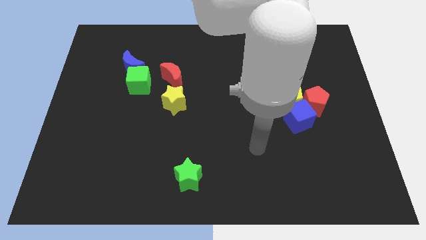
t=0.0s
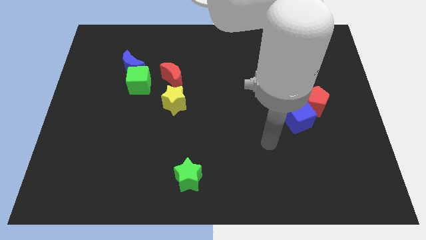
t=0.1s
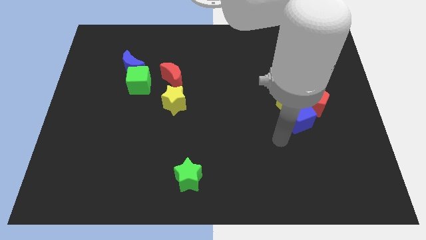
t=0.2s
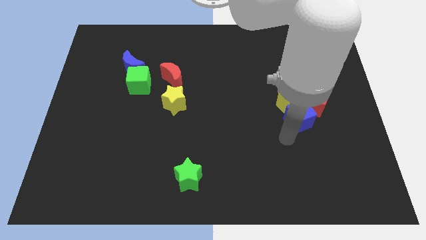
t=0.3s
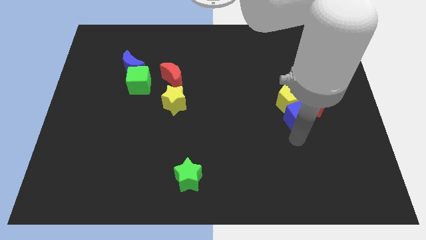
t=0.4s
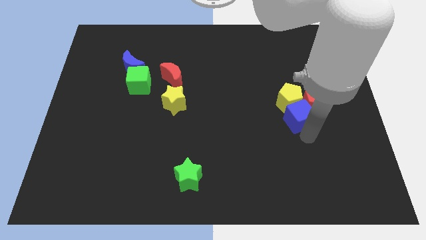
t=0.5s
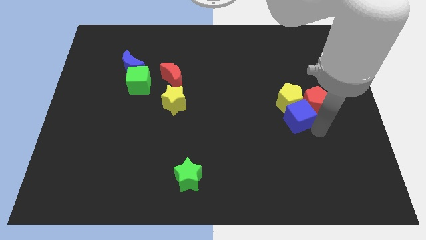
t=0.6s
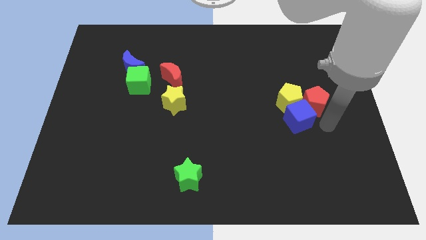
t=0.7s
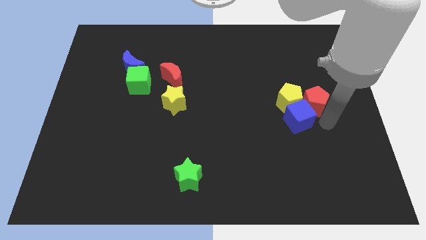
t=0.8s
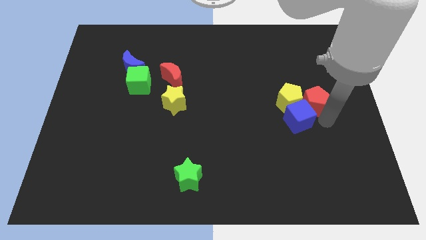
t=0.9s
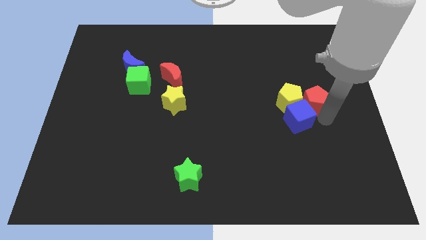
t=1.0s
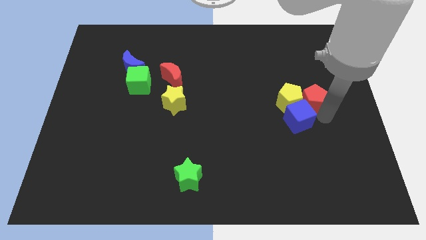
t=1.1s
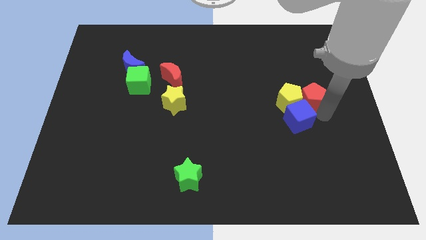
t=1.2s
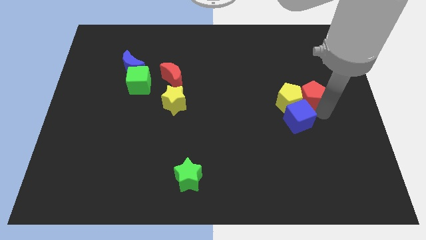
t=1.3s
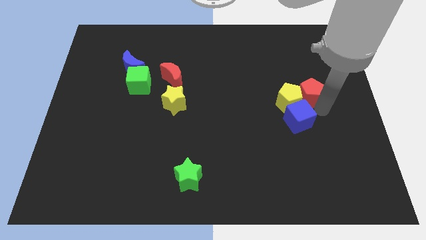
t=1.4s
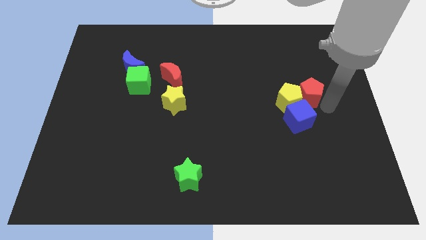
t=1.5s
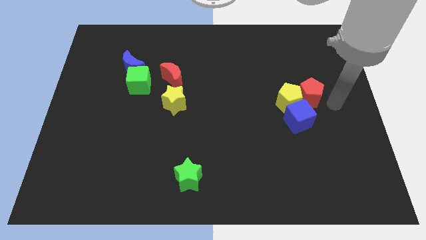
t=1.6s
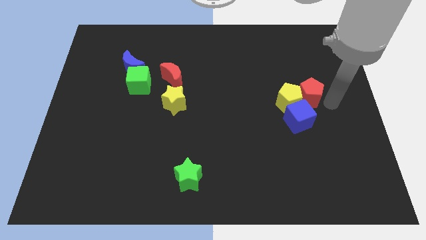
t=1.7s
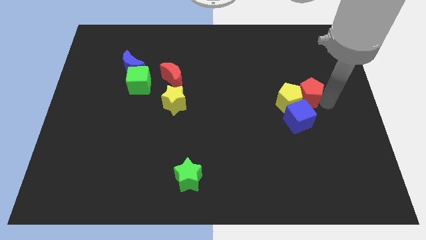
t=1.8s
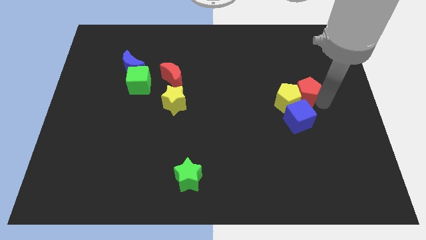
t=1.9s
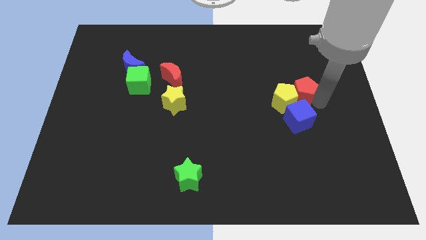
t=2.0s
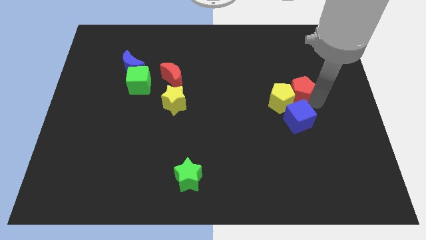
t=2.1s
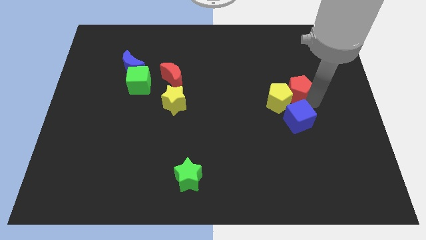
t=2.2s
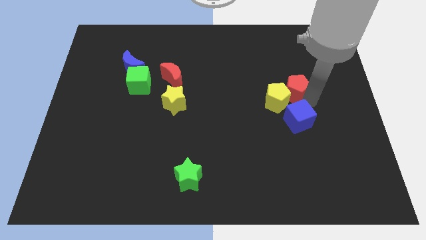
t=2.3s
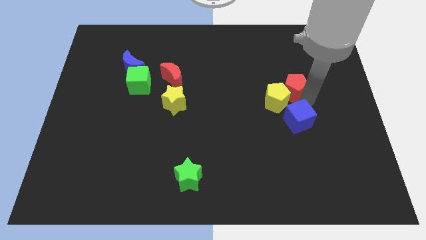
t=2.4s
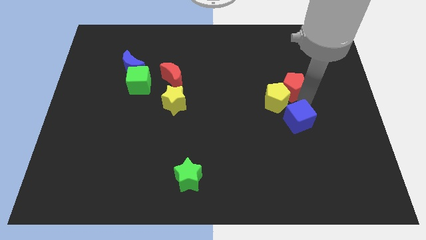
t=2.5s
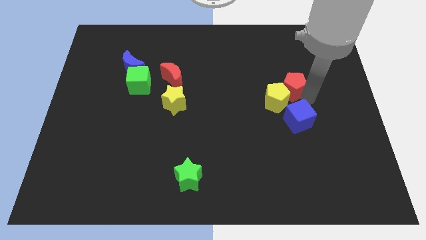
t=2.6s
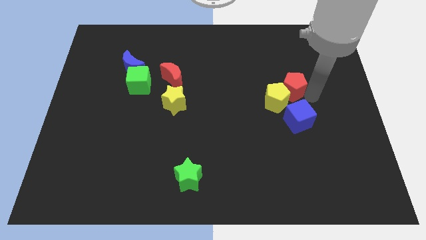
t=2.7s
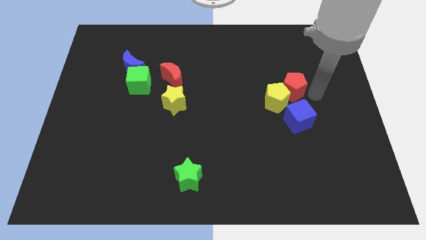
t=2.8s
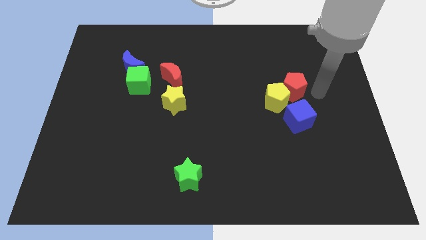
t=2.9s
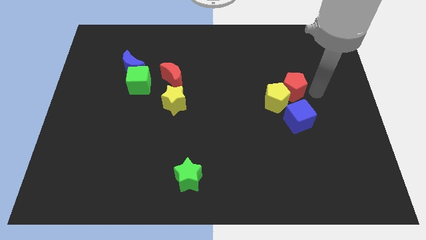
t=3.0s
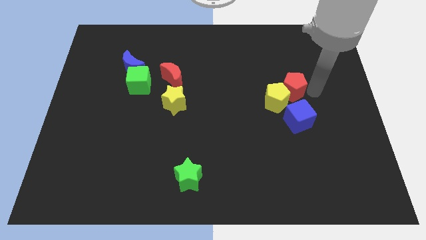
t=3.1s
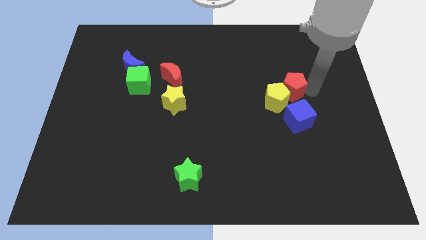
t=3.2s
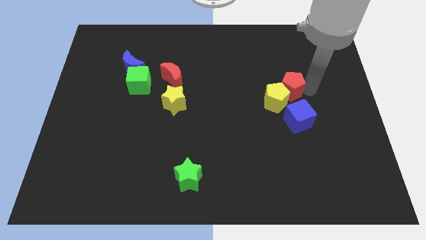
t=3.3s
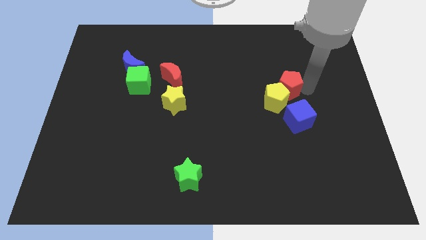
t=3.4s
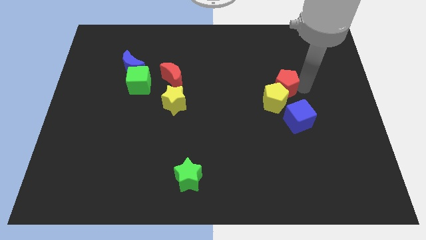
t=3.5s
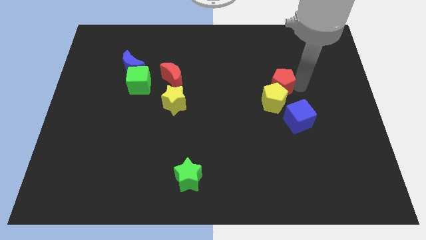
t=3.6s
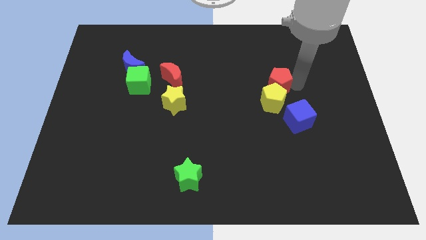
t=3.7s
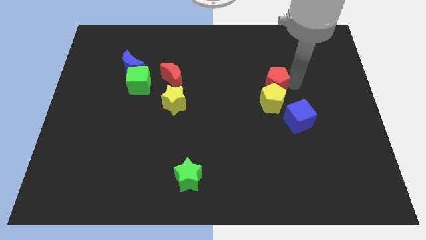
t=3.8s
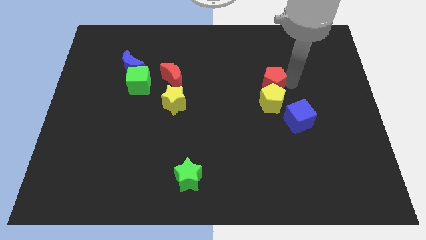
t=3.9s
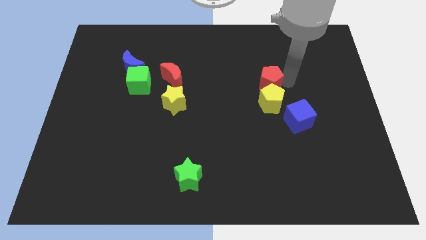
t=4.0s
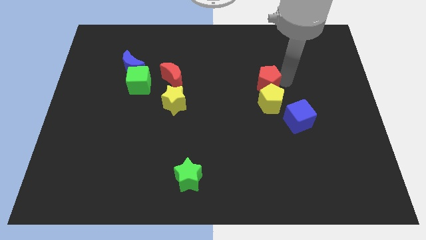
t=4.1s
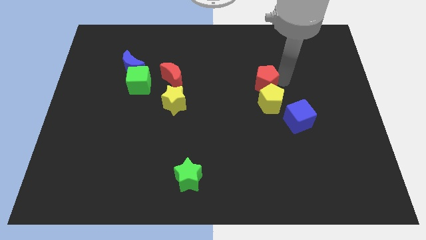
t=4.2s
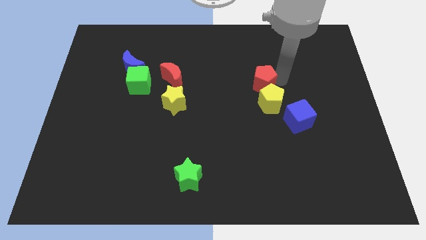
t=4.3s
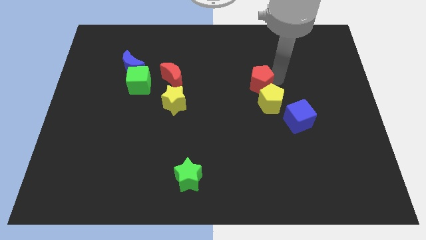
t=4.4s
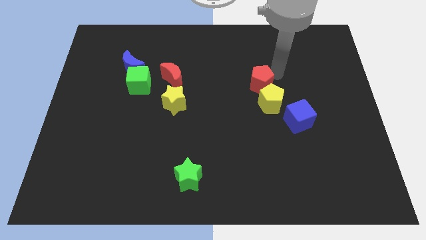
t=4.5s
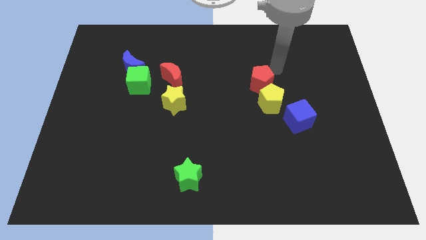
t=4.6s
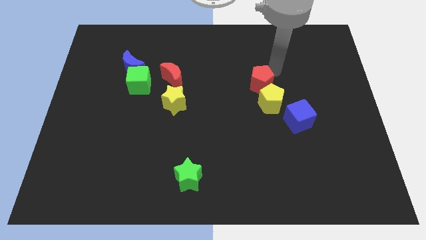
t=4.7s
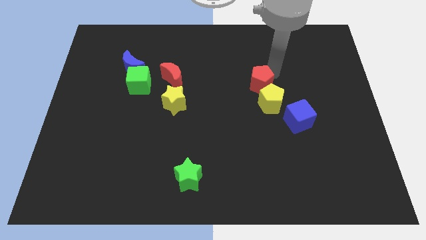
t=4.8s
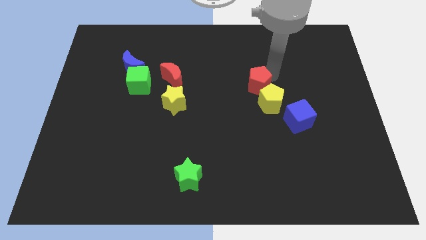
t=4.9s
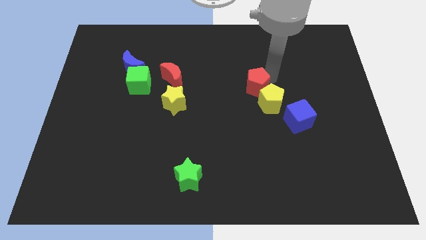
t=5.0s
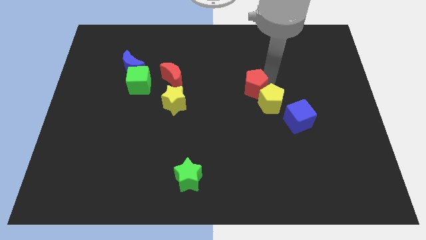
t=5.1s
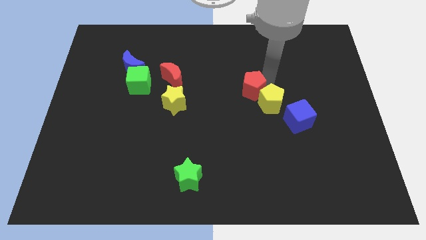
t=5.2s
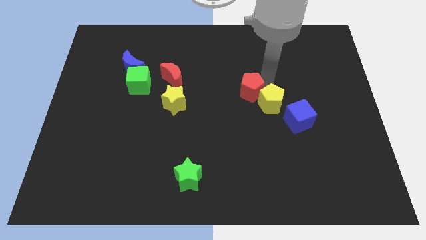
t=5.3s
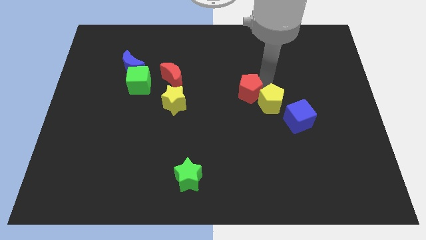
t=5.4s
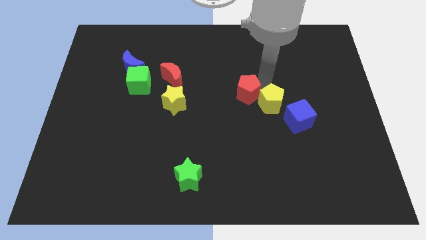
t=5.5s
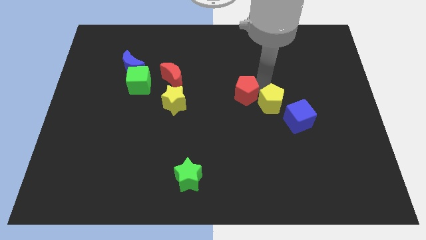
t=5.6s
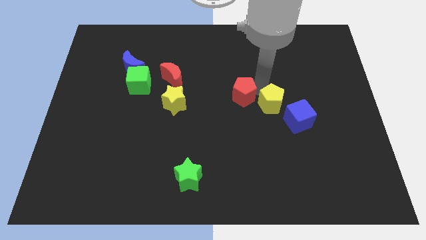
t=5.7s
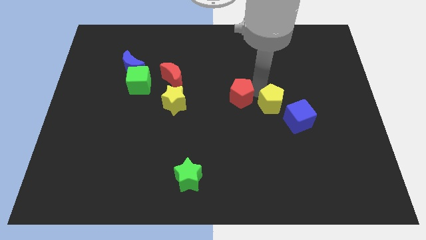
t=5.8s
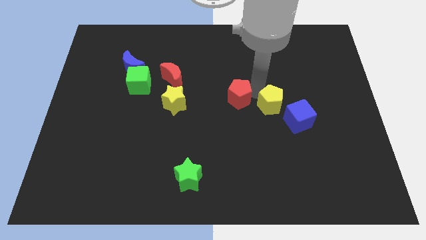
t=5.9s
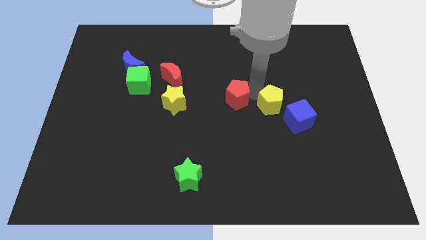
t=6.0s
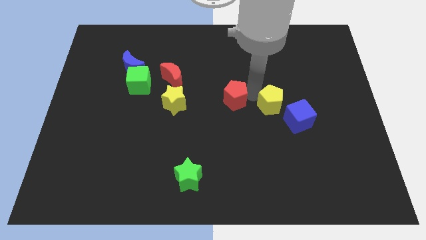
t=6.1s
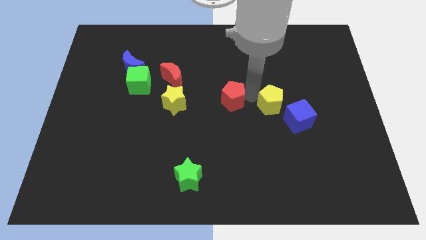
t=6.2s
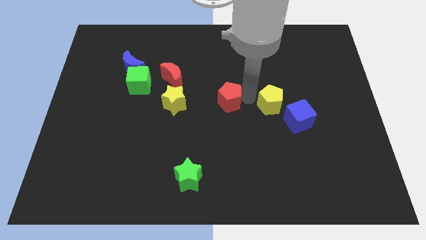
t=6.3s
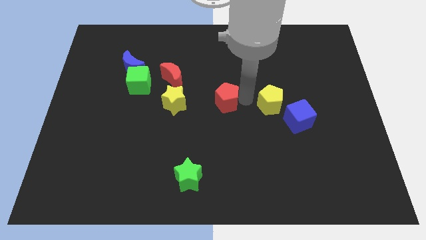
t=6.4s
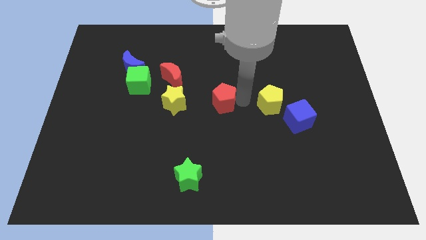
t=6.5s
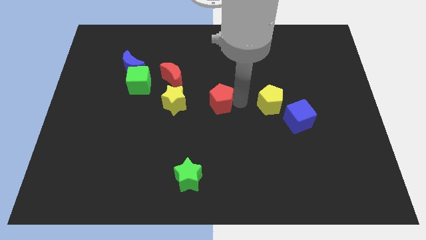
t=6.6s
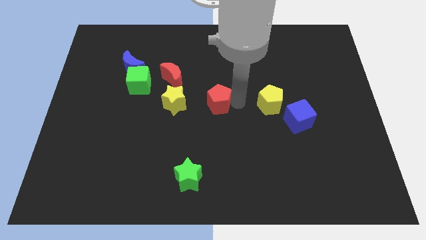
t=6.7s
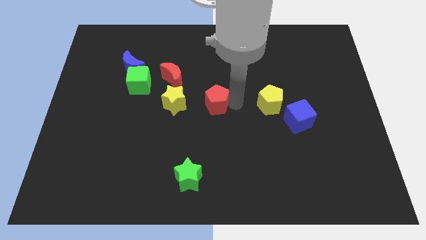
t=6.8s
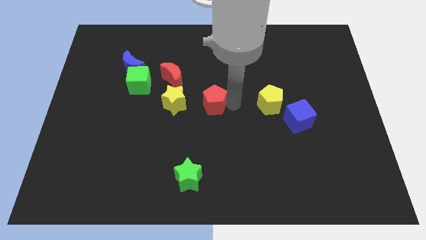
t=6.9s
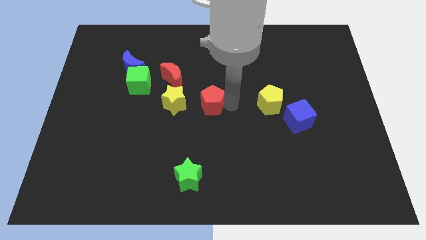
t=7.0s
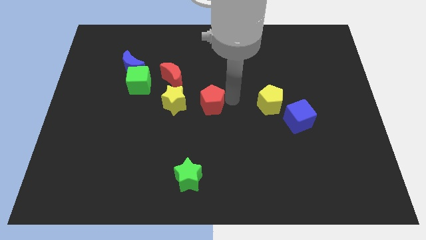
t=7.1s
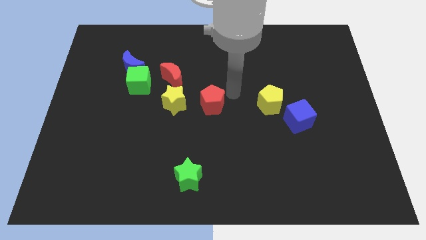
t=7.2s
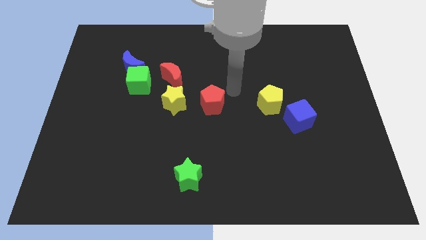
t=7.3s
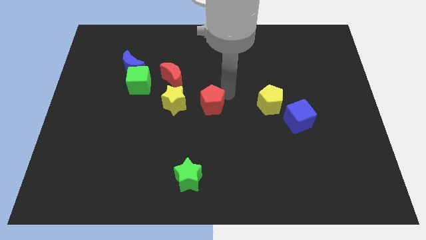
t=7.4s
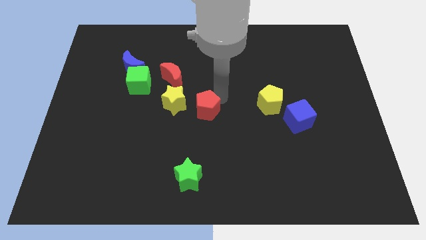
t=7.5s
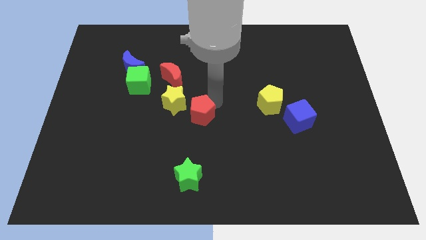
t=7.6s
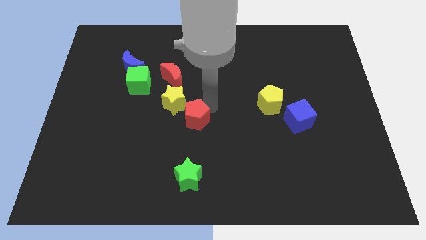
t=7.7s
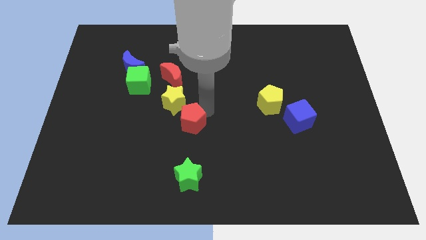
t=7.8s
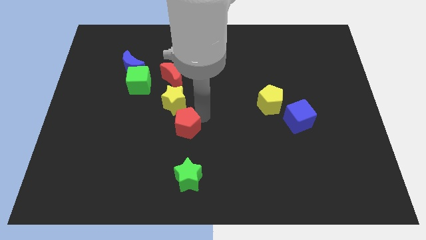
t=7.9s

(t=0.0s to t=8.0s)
put the red pentagon below the red moon

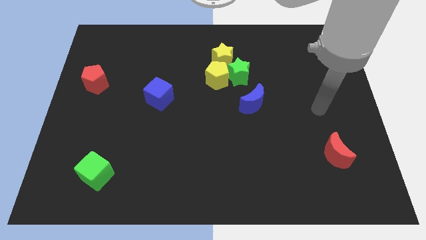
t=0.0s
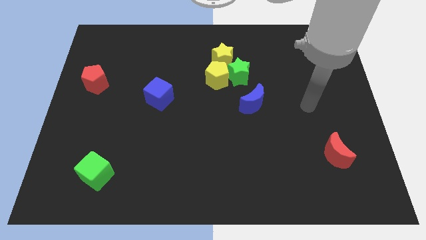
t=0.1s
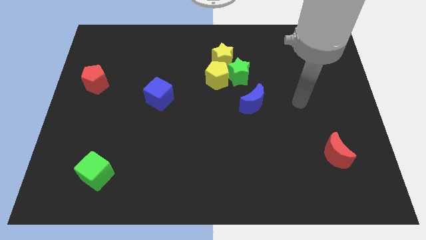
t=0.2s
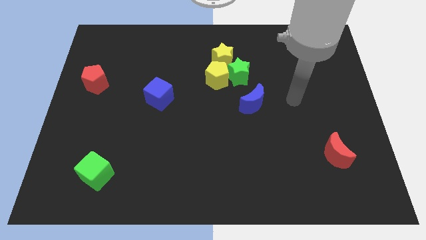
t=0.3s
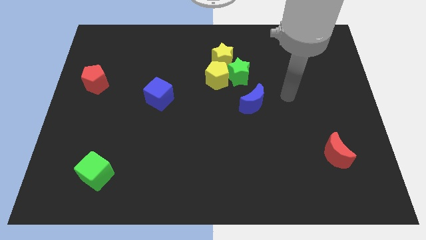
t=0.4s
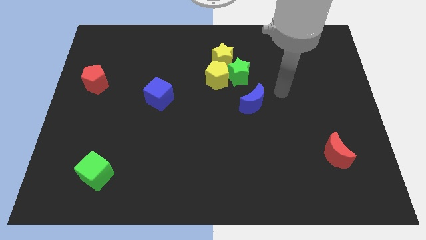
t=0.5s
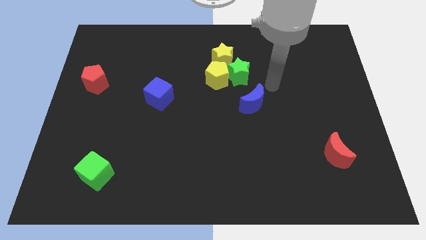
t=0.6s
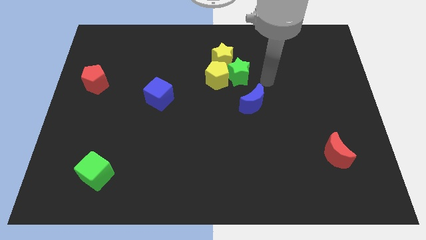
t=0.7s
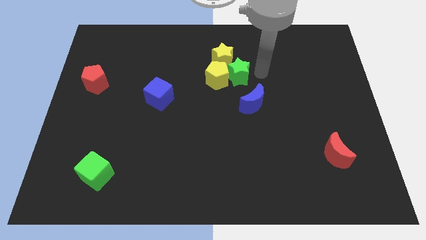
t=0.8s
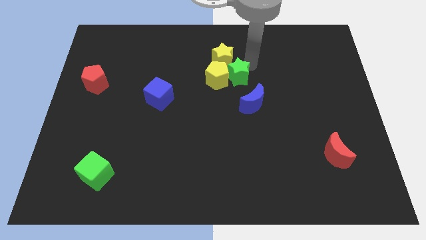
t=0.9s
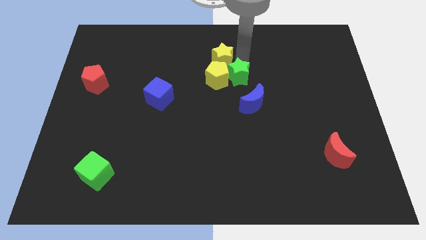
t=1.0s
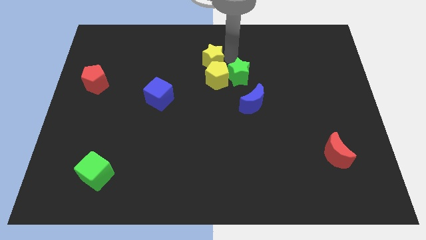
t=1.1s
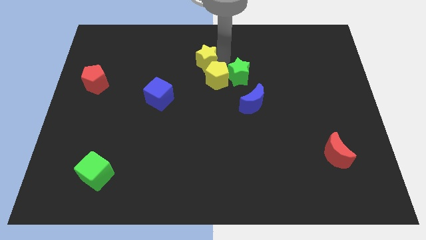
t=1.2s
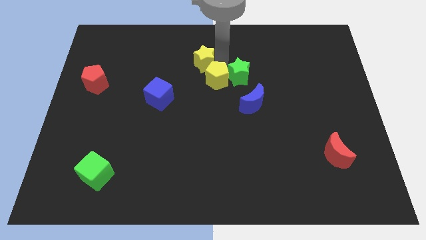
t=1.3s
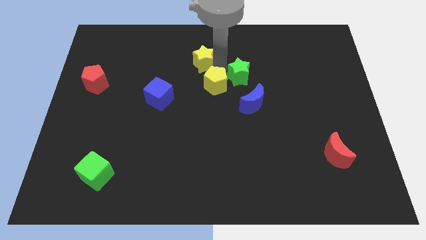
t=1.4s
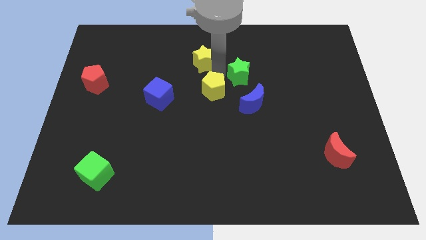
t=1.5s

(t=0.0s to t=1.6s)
push the yellow pentagon left of the blue moon
